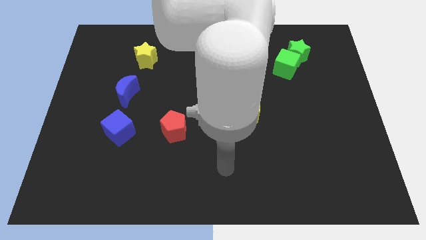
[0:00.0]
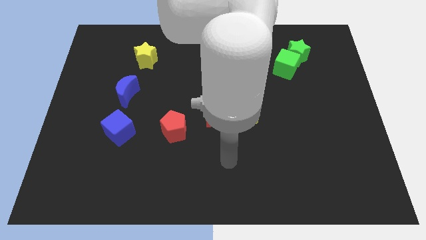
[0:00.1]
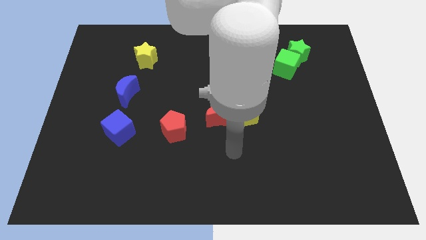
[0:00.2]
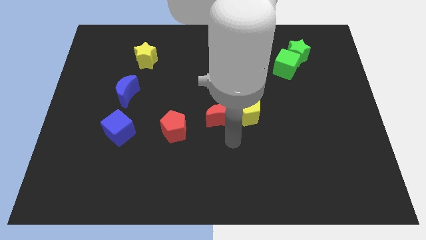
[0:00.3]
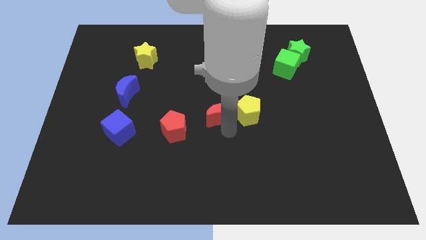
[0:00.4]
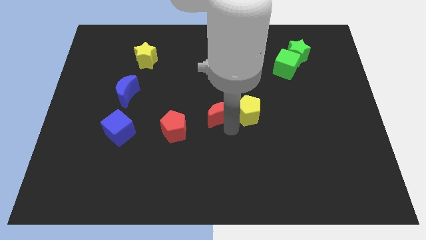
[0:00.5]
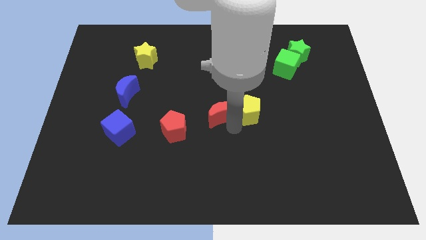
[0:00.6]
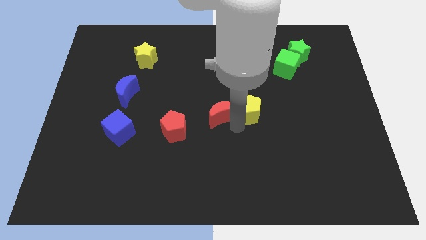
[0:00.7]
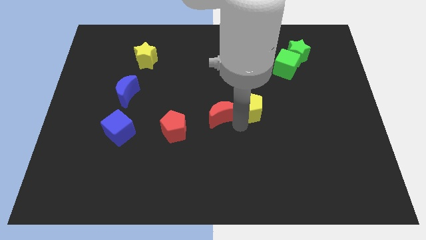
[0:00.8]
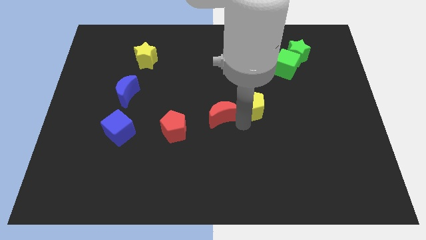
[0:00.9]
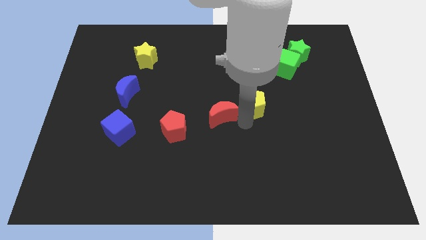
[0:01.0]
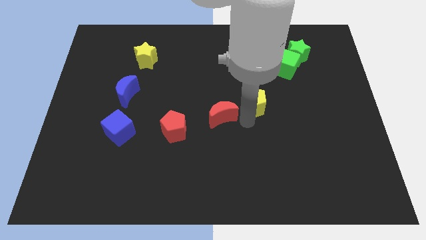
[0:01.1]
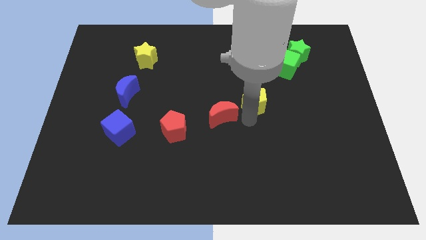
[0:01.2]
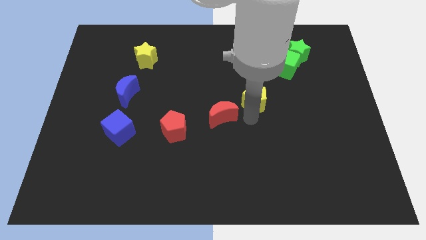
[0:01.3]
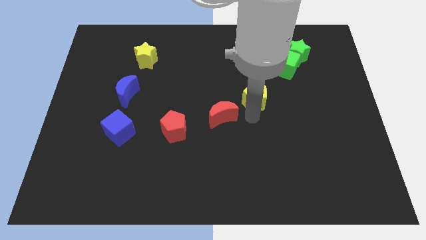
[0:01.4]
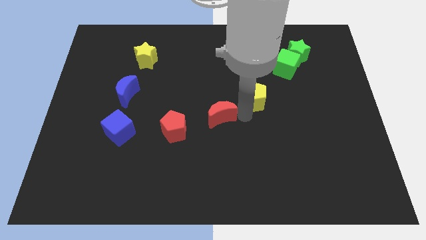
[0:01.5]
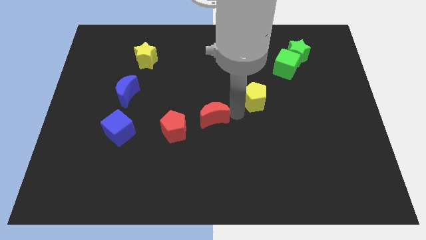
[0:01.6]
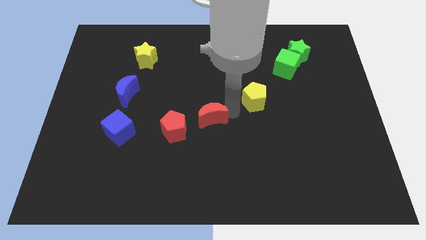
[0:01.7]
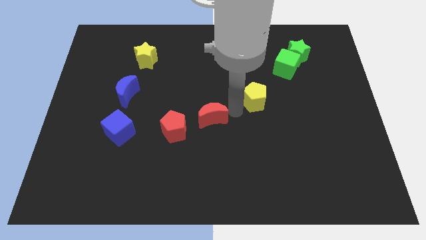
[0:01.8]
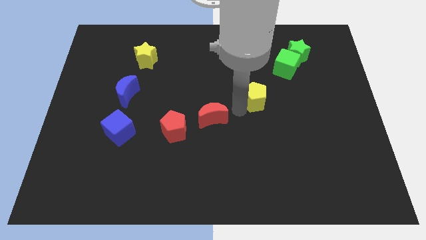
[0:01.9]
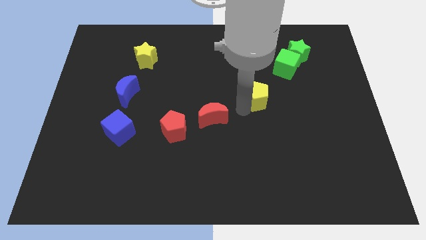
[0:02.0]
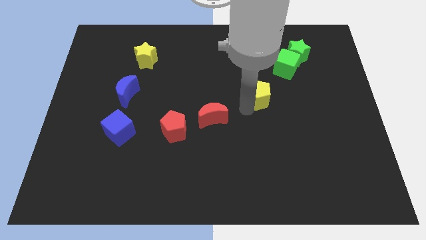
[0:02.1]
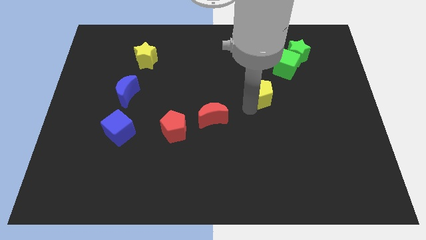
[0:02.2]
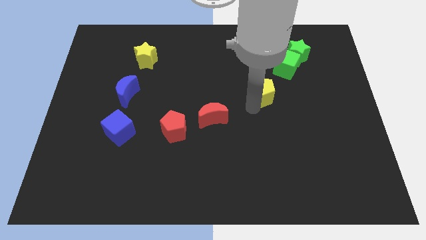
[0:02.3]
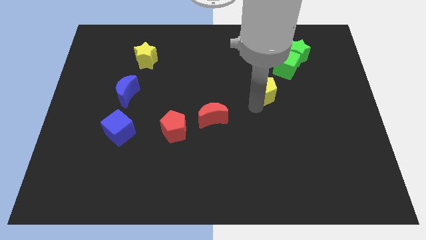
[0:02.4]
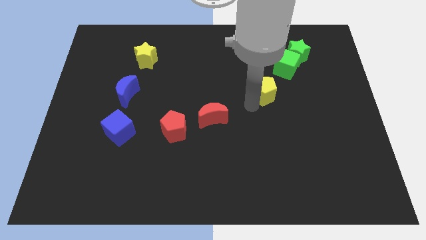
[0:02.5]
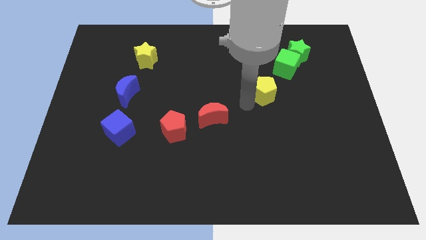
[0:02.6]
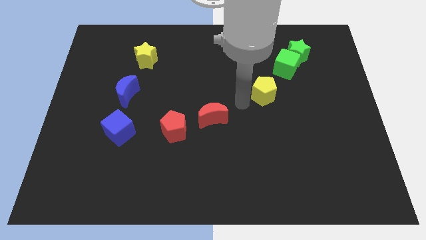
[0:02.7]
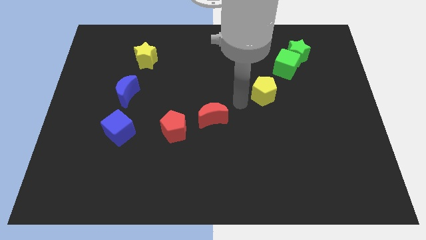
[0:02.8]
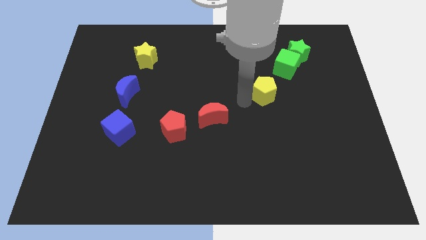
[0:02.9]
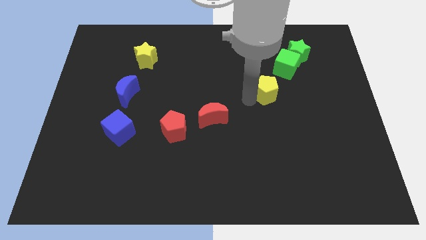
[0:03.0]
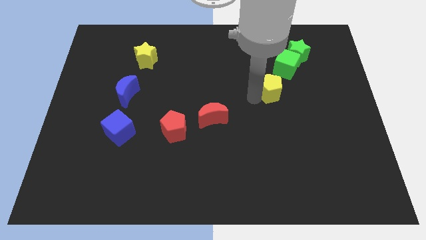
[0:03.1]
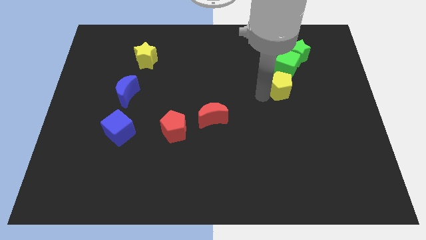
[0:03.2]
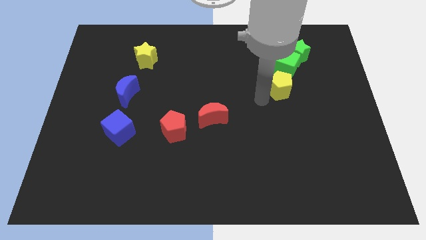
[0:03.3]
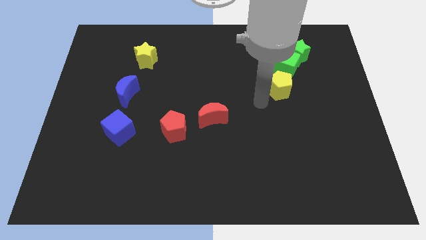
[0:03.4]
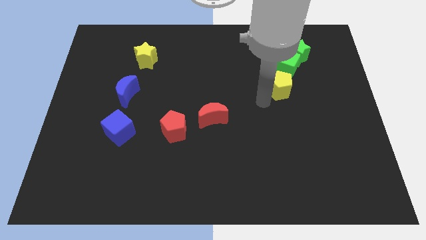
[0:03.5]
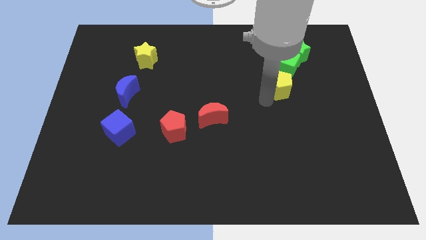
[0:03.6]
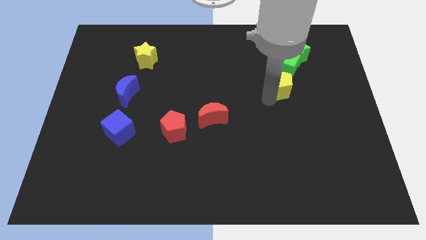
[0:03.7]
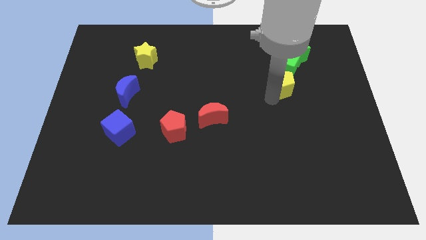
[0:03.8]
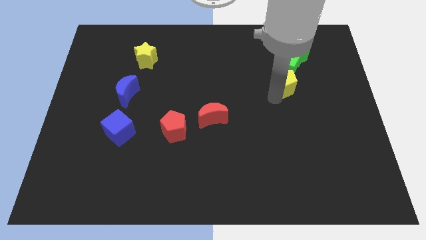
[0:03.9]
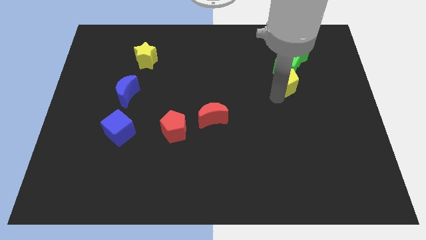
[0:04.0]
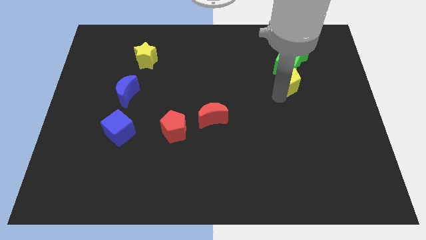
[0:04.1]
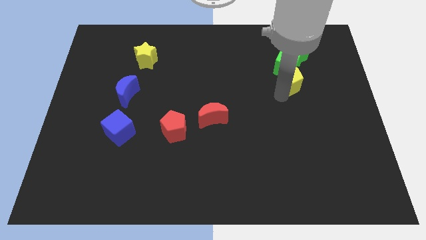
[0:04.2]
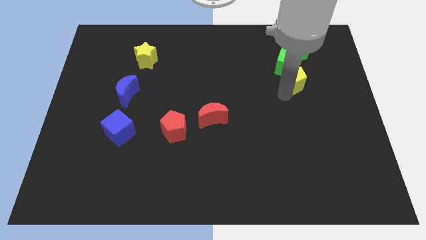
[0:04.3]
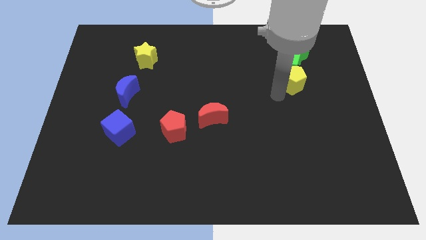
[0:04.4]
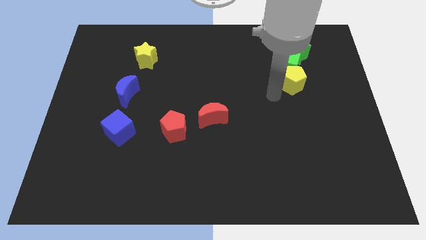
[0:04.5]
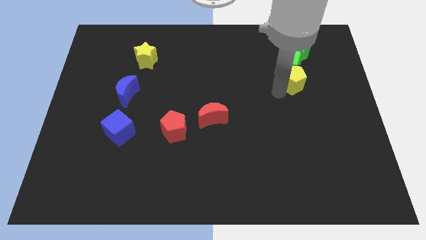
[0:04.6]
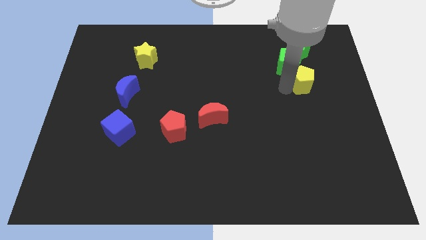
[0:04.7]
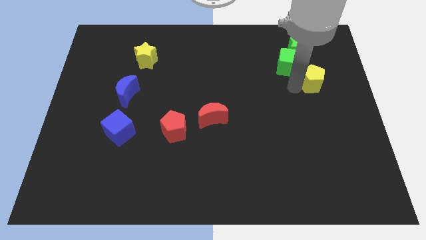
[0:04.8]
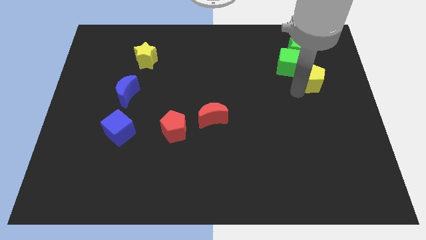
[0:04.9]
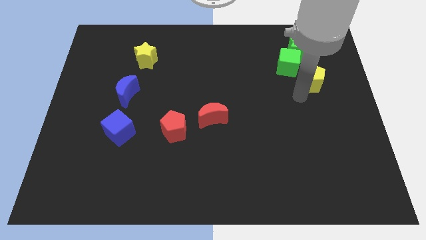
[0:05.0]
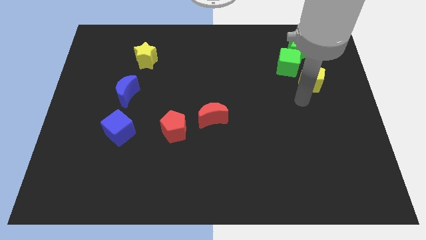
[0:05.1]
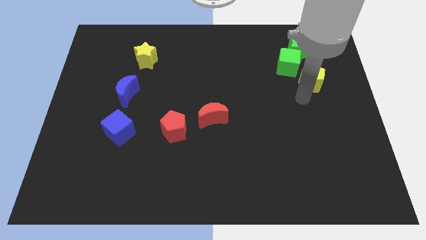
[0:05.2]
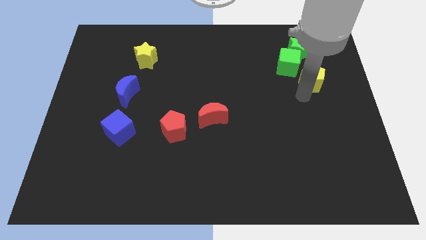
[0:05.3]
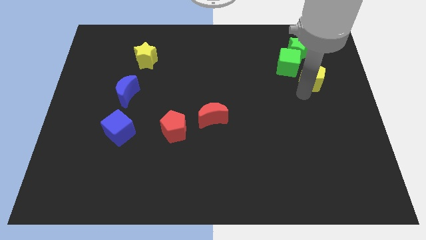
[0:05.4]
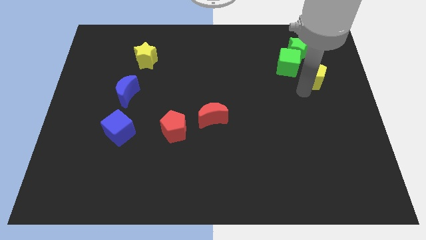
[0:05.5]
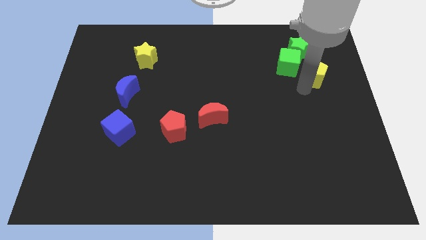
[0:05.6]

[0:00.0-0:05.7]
move the yellow pentagon diagonally down and to the right of the green star
